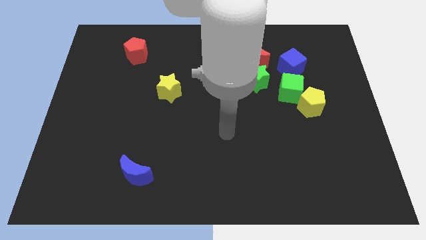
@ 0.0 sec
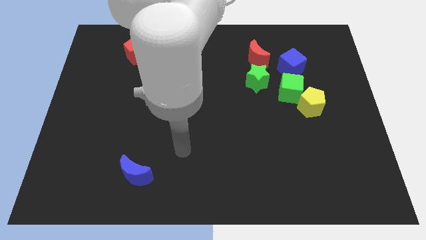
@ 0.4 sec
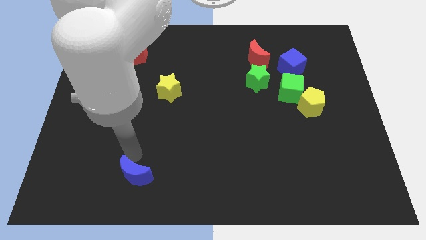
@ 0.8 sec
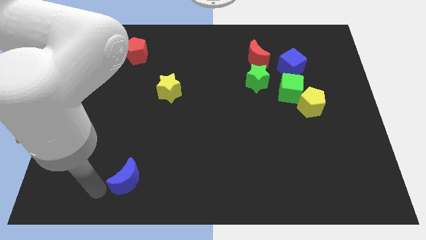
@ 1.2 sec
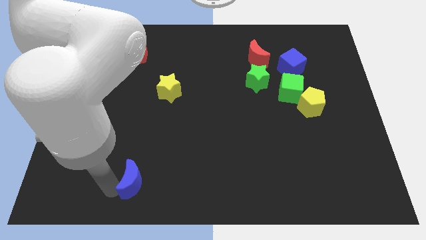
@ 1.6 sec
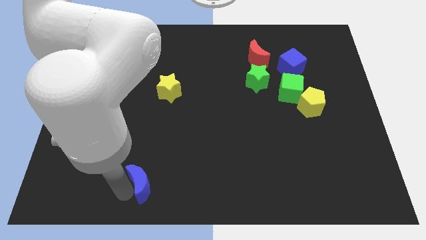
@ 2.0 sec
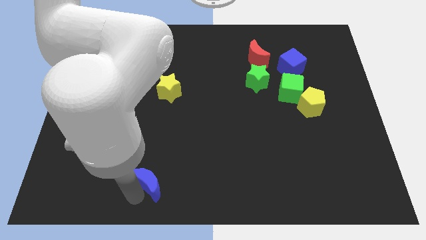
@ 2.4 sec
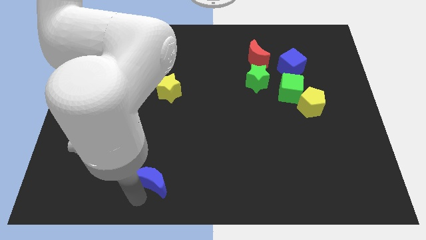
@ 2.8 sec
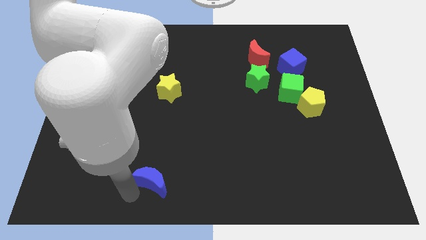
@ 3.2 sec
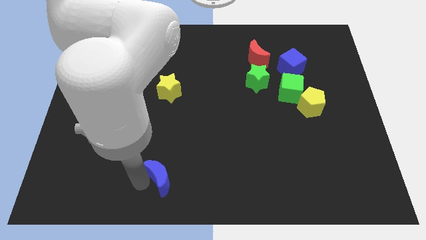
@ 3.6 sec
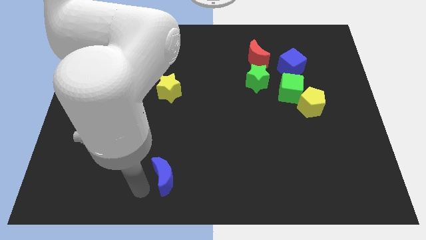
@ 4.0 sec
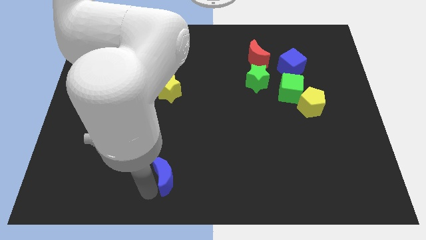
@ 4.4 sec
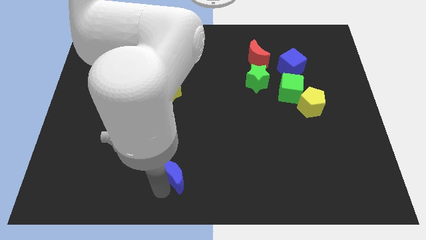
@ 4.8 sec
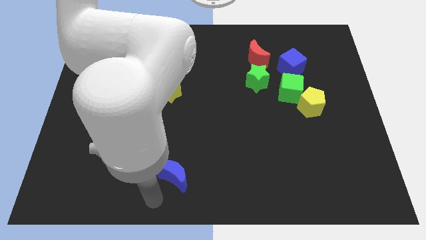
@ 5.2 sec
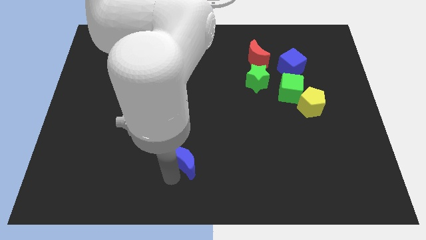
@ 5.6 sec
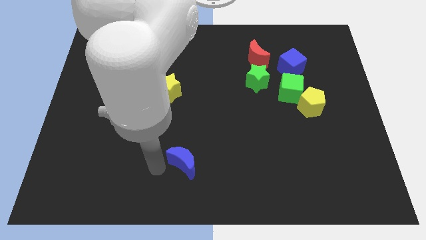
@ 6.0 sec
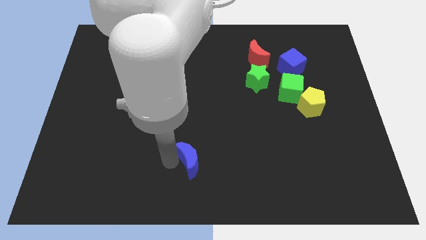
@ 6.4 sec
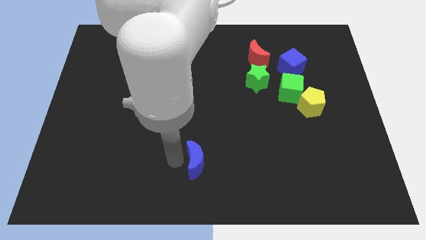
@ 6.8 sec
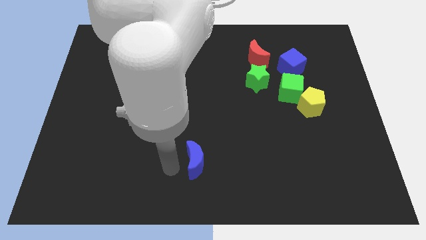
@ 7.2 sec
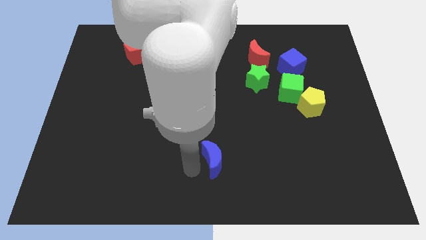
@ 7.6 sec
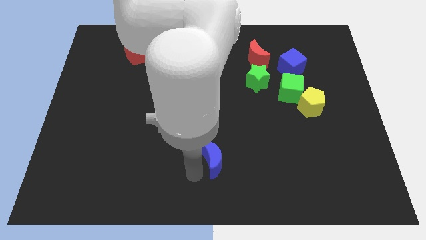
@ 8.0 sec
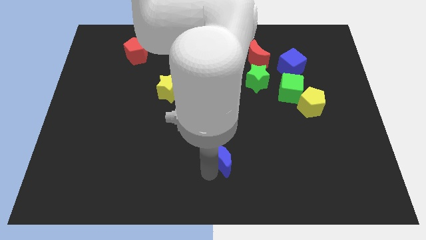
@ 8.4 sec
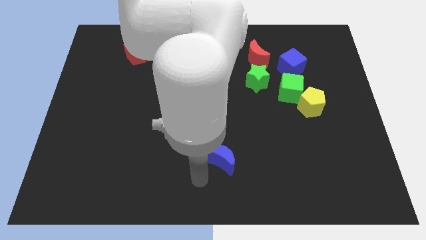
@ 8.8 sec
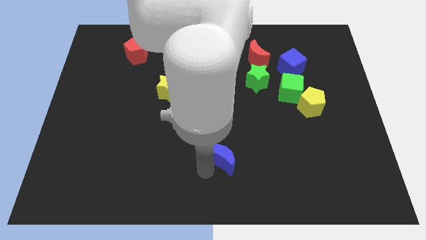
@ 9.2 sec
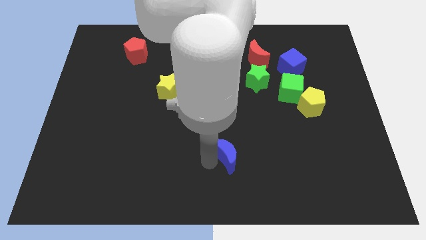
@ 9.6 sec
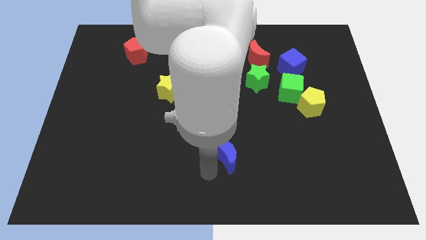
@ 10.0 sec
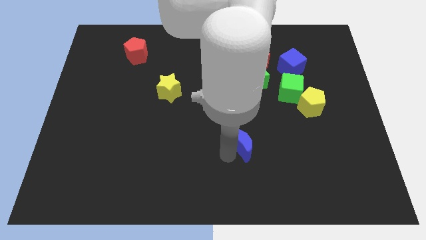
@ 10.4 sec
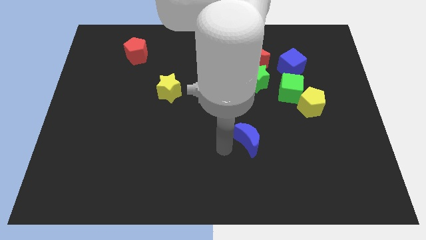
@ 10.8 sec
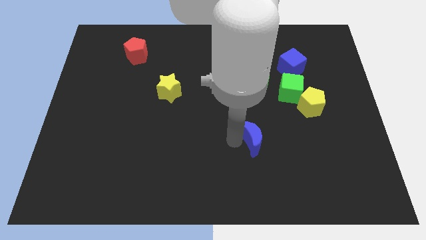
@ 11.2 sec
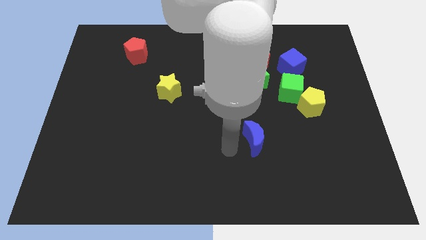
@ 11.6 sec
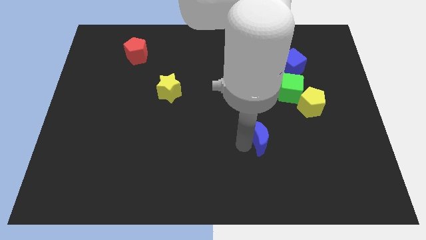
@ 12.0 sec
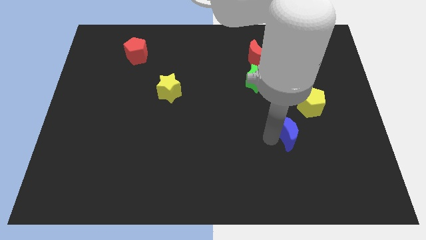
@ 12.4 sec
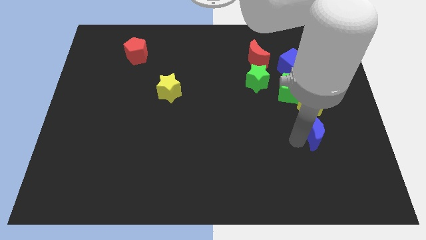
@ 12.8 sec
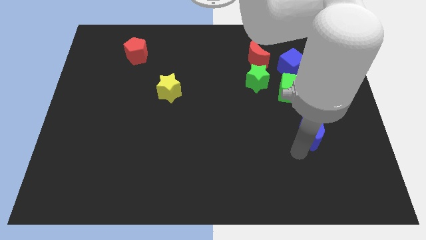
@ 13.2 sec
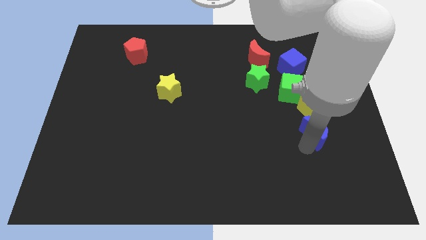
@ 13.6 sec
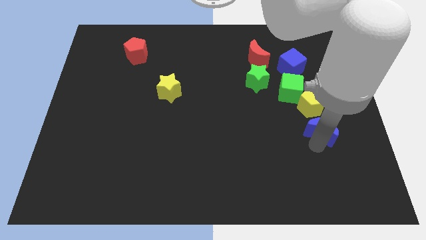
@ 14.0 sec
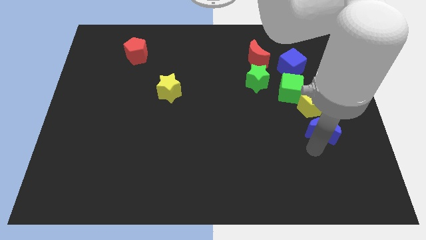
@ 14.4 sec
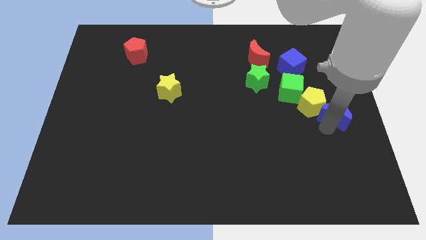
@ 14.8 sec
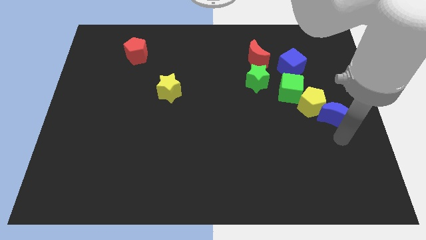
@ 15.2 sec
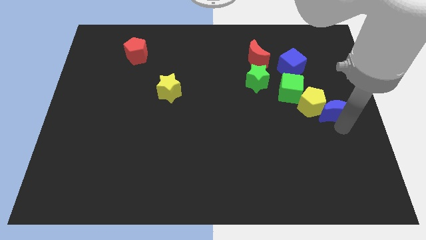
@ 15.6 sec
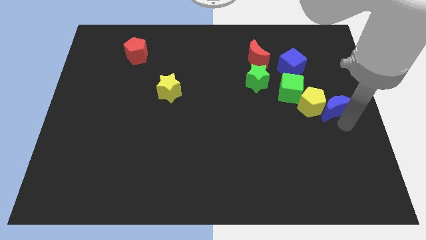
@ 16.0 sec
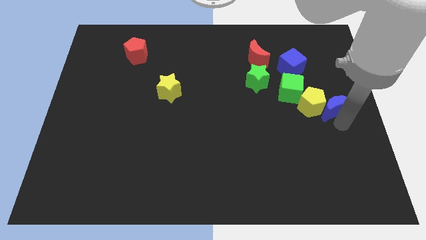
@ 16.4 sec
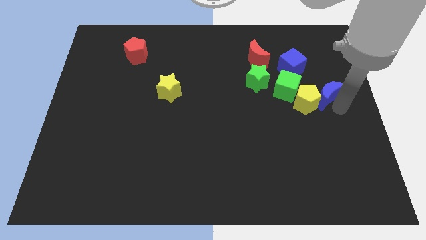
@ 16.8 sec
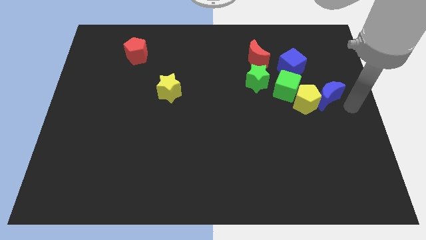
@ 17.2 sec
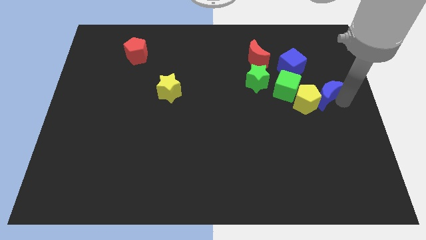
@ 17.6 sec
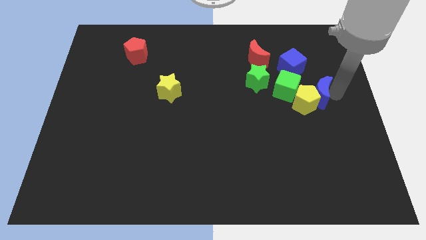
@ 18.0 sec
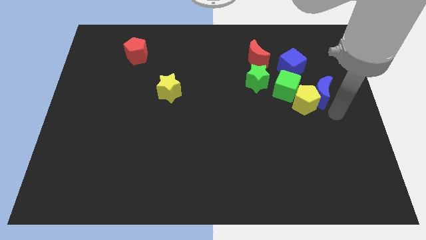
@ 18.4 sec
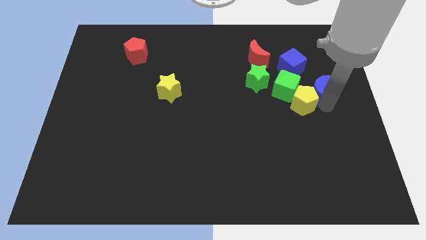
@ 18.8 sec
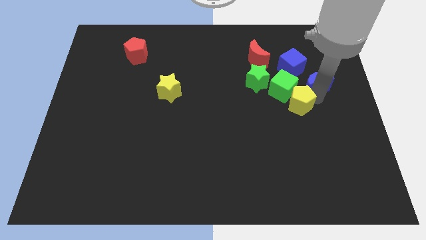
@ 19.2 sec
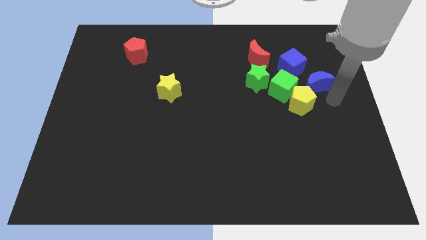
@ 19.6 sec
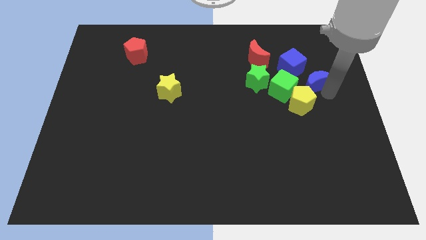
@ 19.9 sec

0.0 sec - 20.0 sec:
slide the blue moon to the top right of the green cube

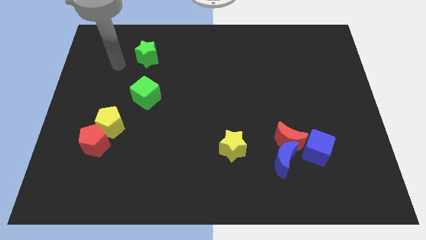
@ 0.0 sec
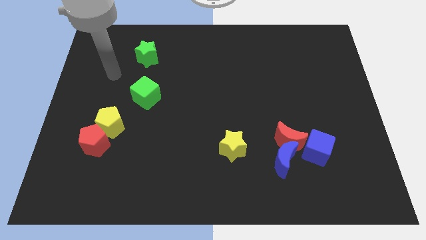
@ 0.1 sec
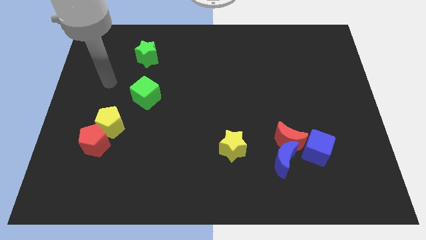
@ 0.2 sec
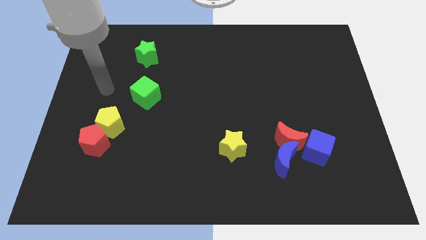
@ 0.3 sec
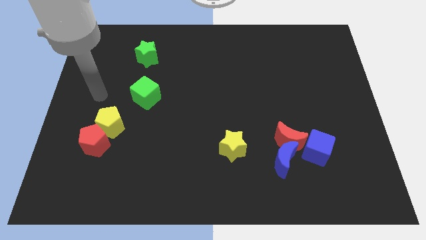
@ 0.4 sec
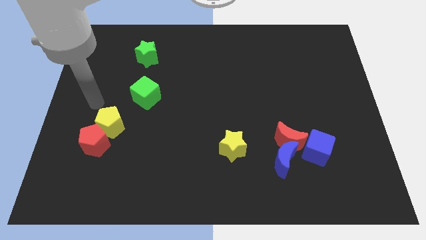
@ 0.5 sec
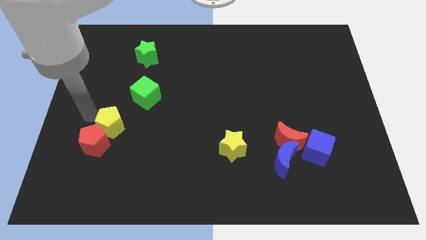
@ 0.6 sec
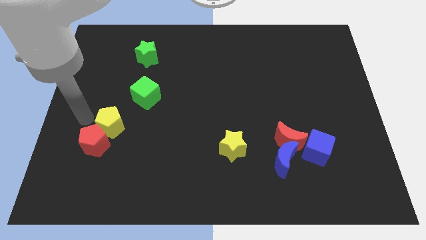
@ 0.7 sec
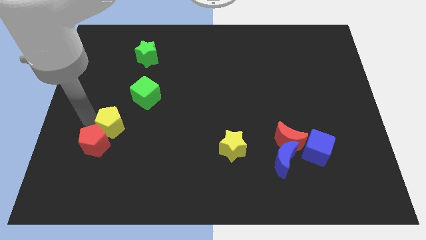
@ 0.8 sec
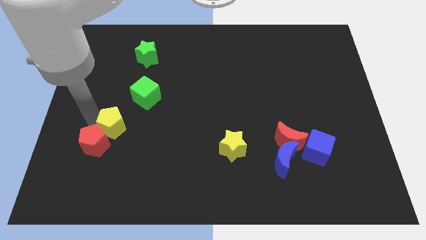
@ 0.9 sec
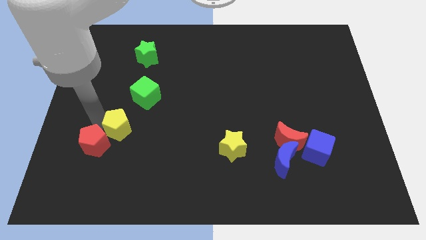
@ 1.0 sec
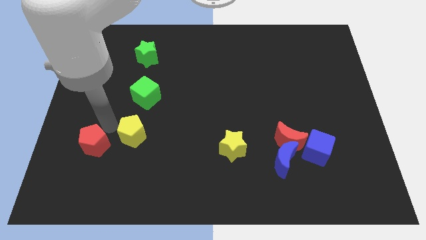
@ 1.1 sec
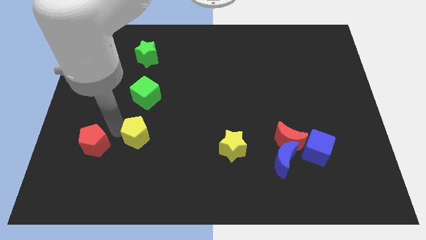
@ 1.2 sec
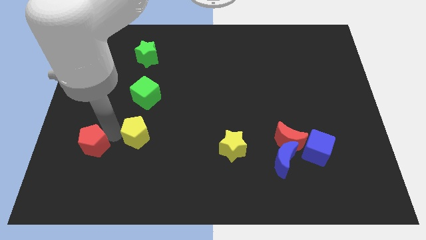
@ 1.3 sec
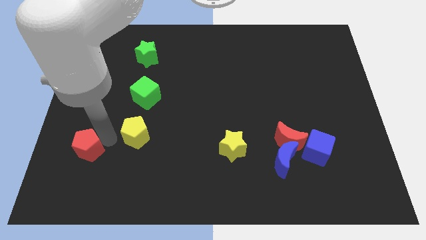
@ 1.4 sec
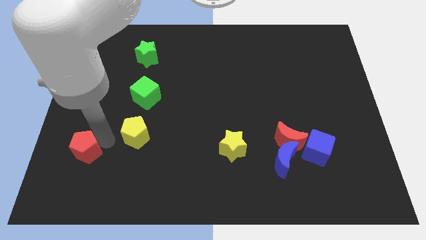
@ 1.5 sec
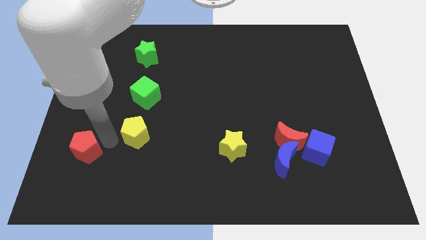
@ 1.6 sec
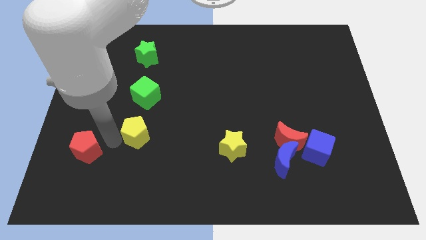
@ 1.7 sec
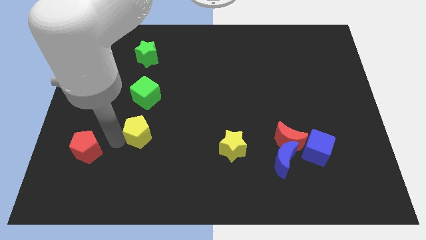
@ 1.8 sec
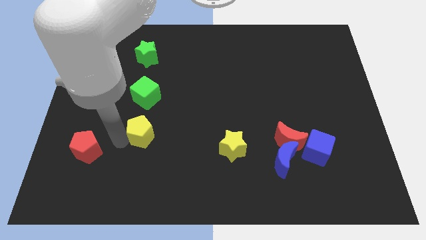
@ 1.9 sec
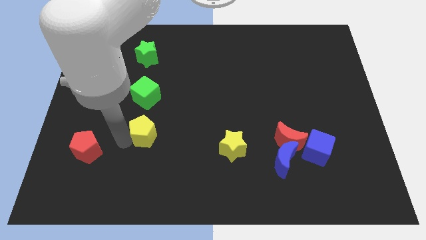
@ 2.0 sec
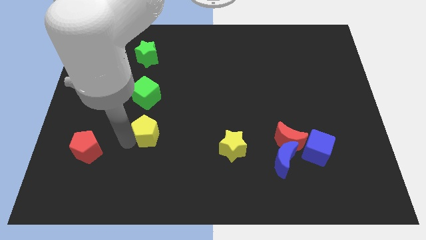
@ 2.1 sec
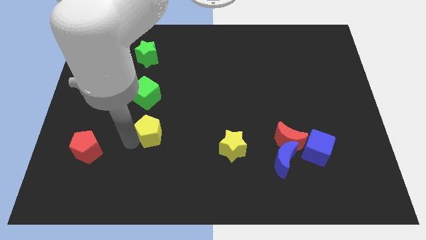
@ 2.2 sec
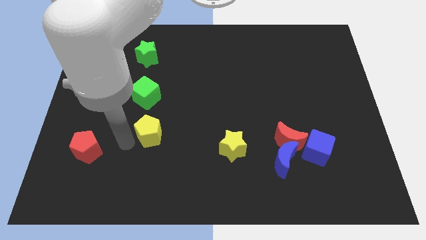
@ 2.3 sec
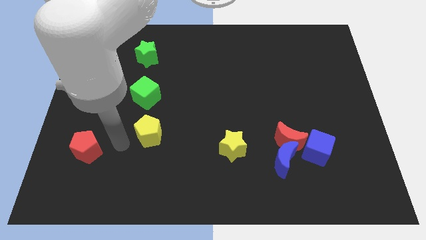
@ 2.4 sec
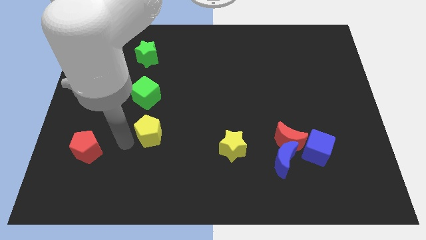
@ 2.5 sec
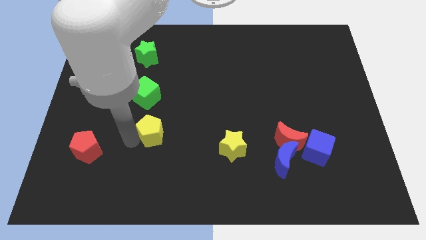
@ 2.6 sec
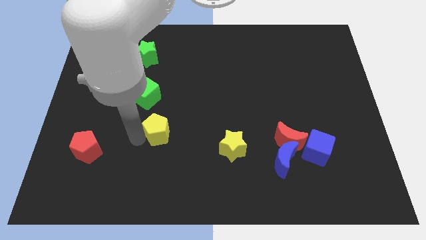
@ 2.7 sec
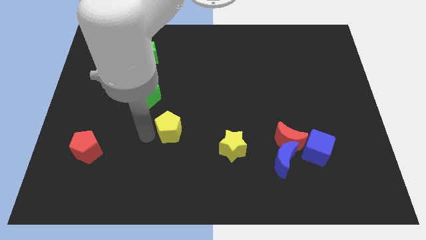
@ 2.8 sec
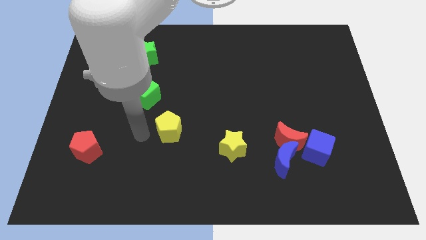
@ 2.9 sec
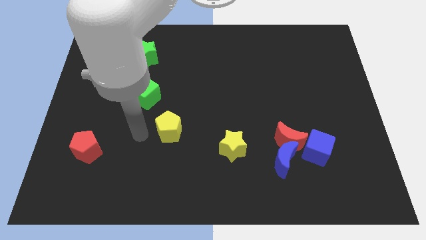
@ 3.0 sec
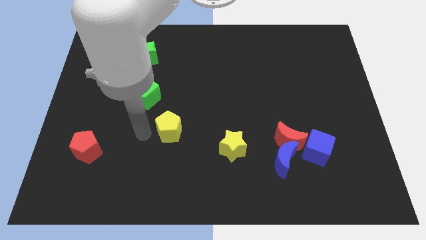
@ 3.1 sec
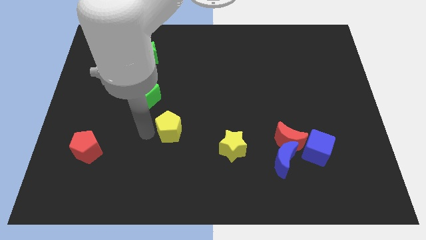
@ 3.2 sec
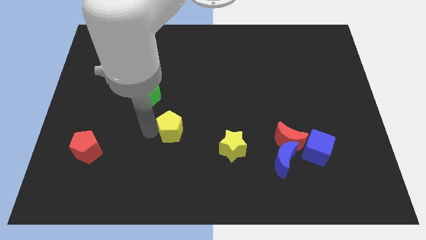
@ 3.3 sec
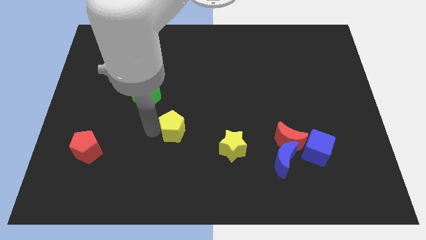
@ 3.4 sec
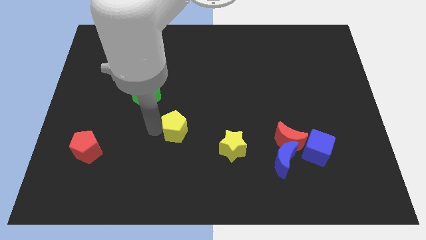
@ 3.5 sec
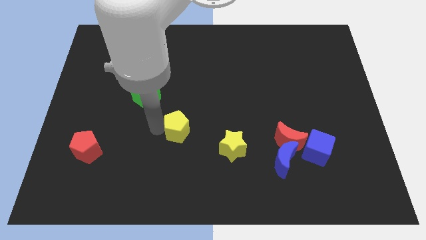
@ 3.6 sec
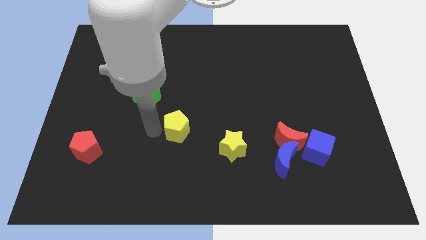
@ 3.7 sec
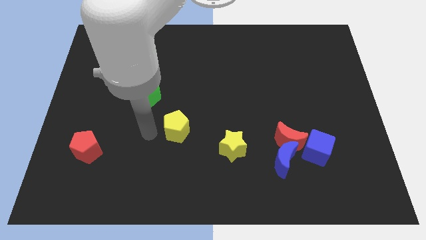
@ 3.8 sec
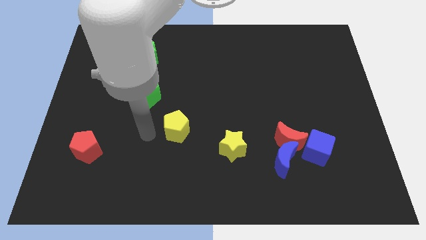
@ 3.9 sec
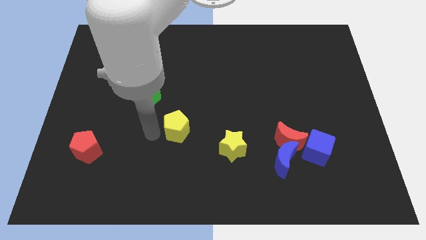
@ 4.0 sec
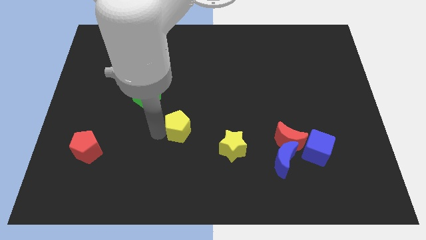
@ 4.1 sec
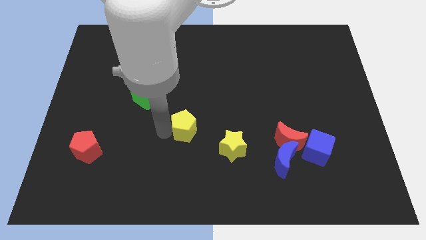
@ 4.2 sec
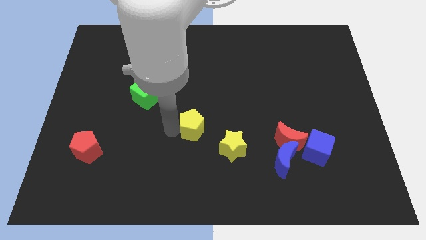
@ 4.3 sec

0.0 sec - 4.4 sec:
slide the yellow pentagon diagonally up and to the left of the yellow star
